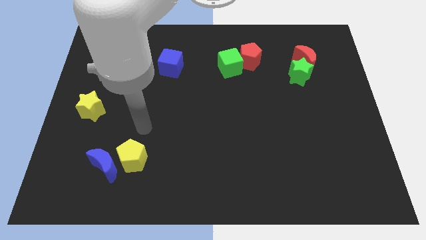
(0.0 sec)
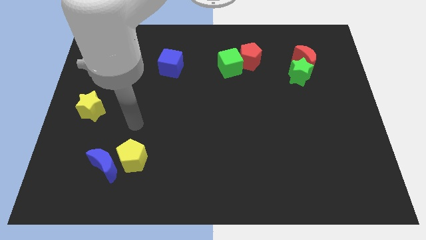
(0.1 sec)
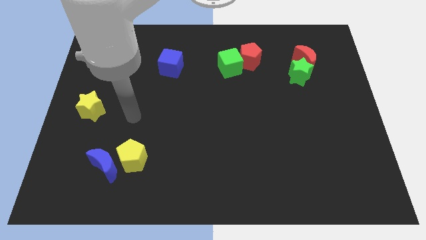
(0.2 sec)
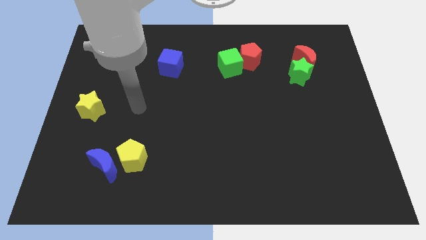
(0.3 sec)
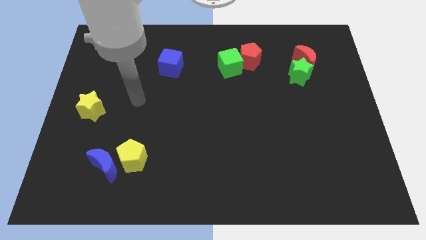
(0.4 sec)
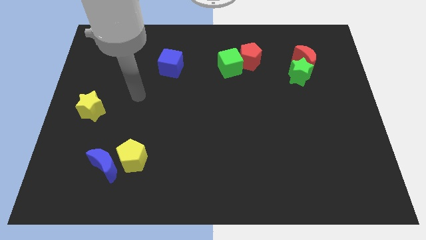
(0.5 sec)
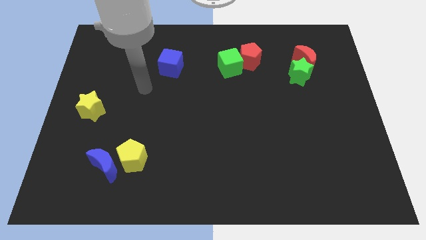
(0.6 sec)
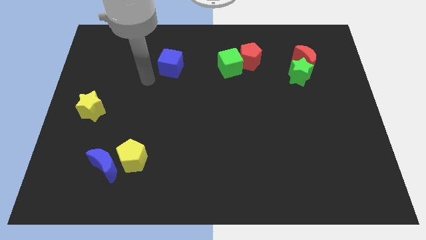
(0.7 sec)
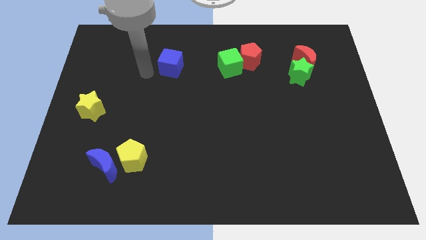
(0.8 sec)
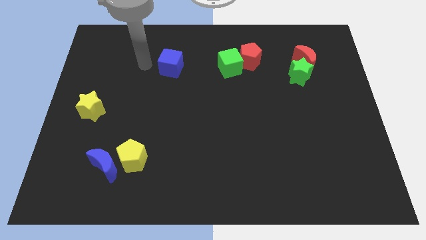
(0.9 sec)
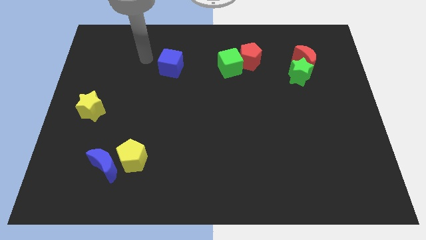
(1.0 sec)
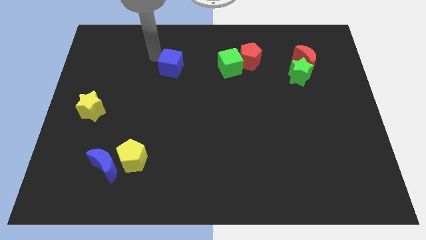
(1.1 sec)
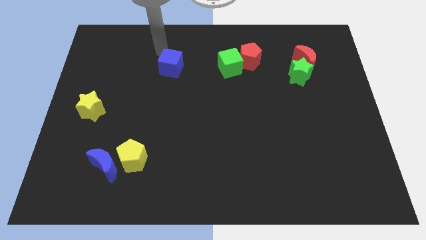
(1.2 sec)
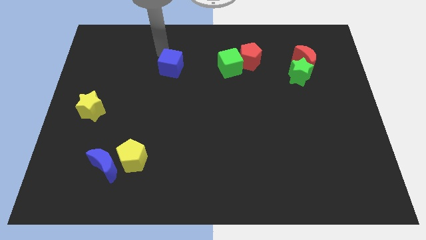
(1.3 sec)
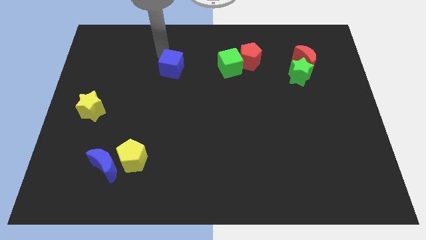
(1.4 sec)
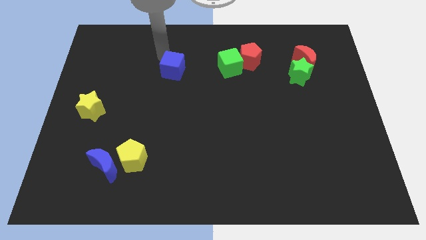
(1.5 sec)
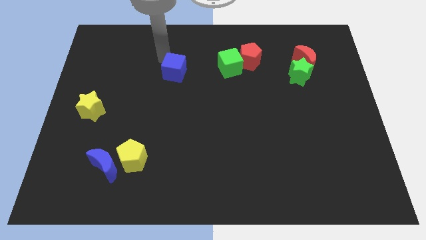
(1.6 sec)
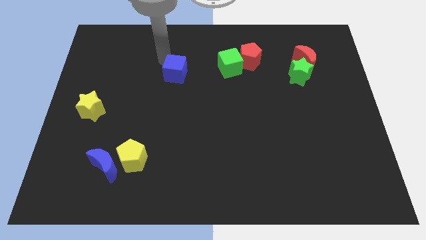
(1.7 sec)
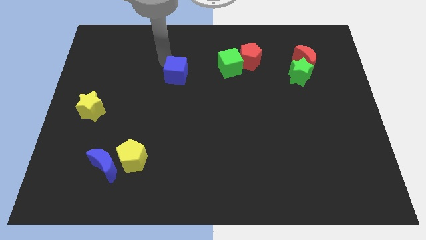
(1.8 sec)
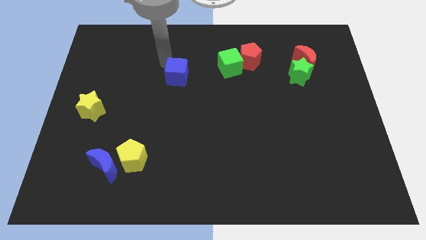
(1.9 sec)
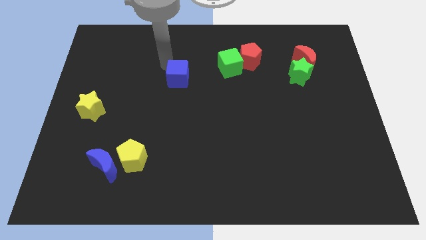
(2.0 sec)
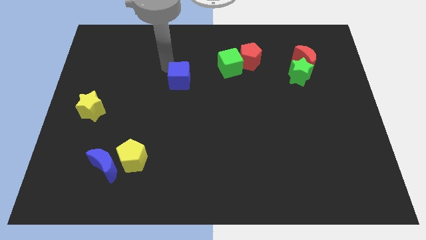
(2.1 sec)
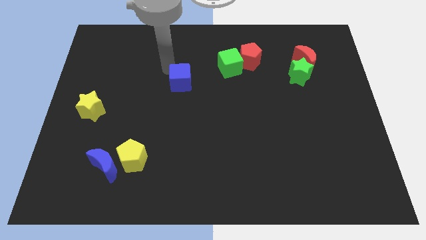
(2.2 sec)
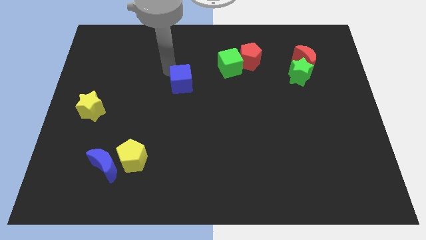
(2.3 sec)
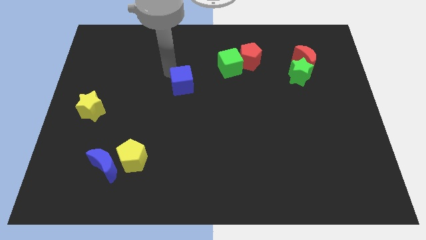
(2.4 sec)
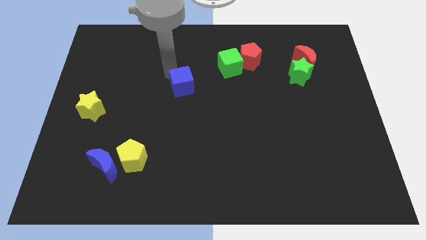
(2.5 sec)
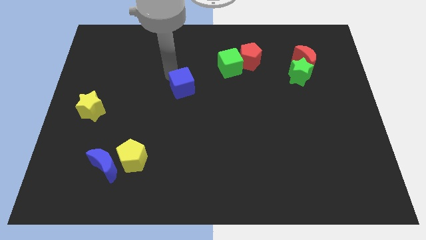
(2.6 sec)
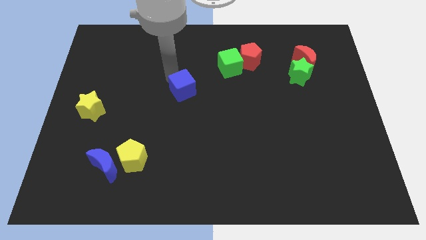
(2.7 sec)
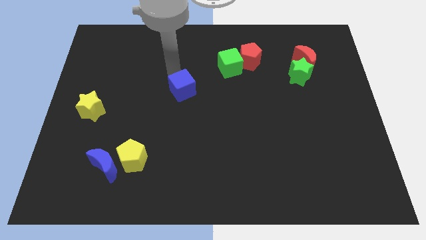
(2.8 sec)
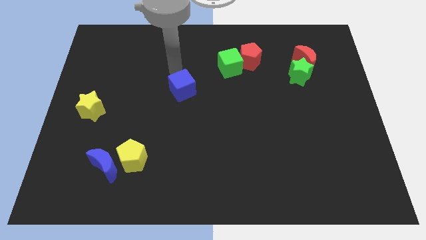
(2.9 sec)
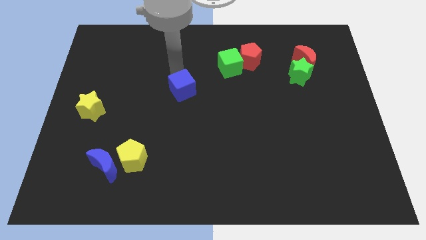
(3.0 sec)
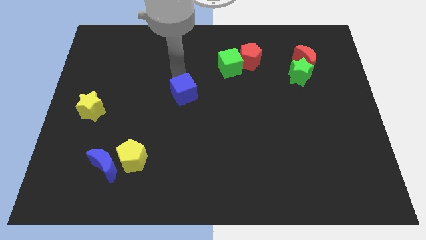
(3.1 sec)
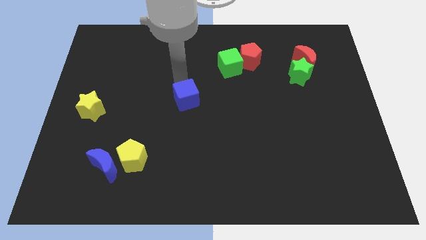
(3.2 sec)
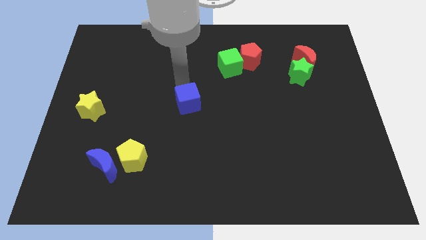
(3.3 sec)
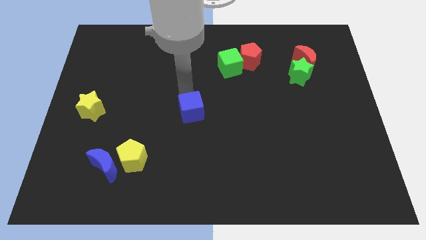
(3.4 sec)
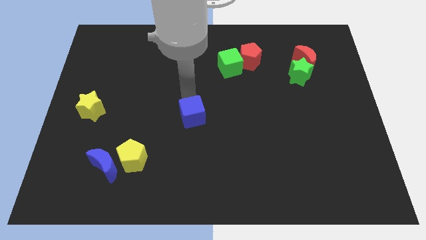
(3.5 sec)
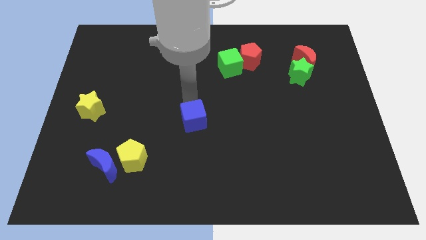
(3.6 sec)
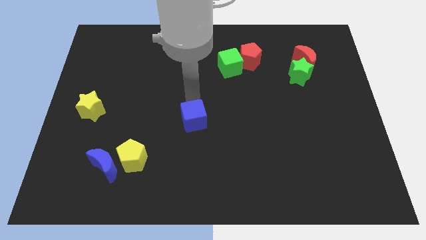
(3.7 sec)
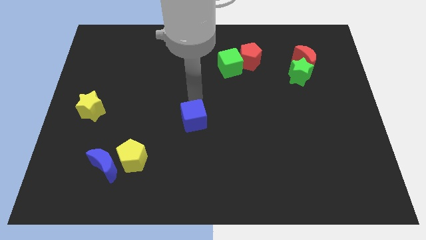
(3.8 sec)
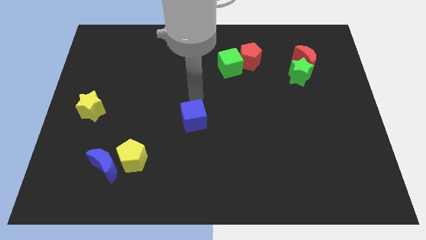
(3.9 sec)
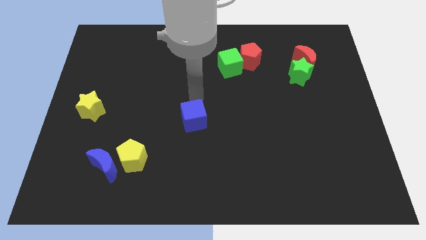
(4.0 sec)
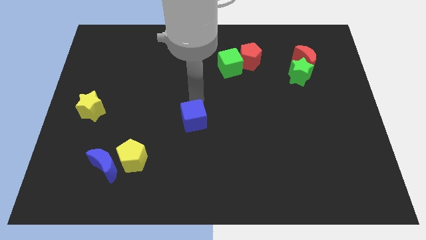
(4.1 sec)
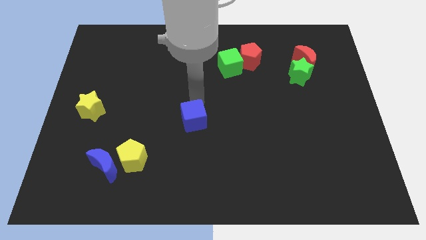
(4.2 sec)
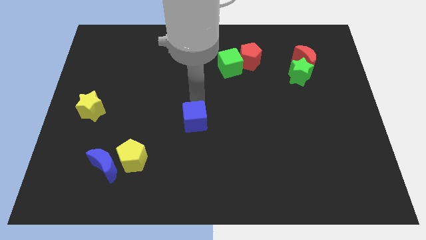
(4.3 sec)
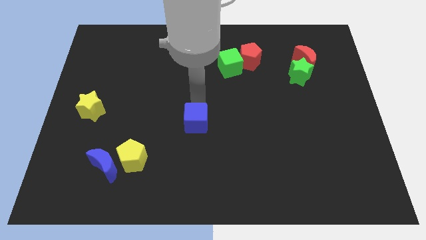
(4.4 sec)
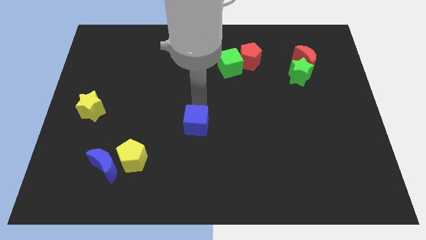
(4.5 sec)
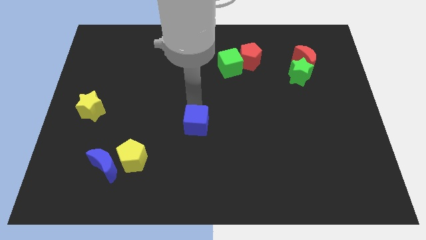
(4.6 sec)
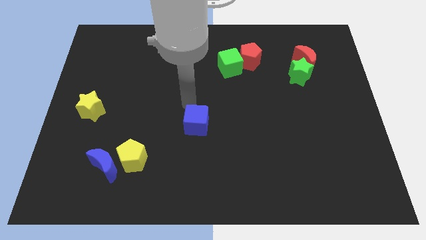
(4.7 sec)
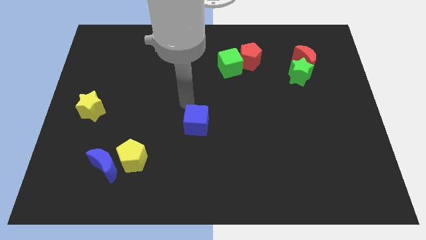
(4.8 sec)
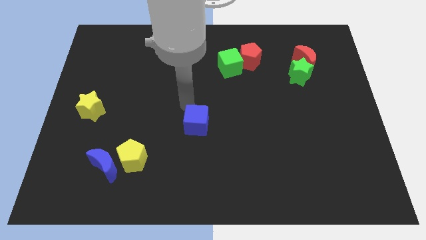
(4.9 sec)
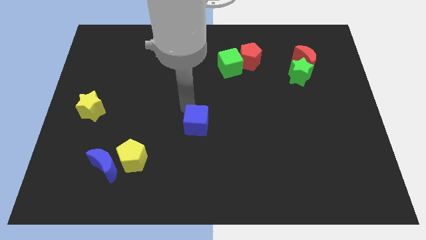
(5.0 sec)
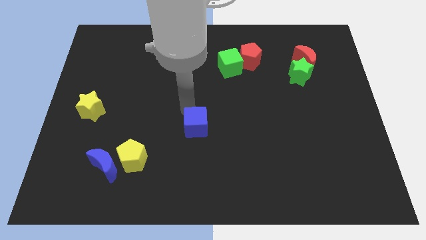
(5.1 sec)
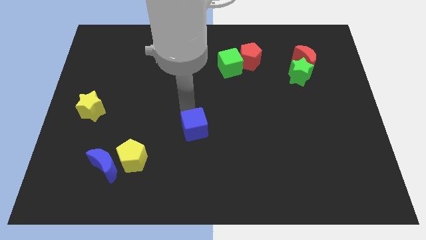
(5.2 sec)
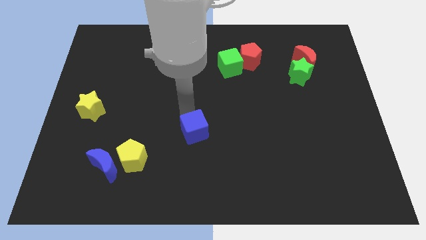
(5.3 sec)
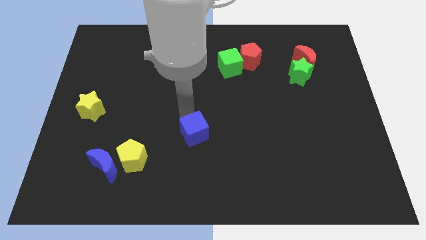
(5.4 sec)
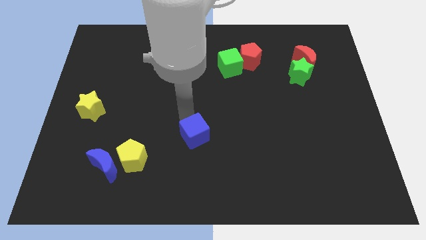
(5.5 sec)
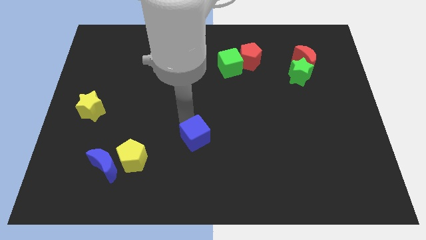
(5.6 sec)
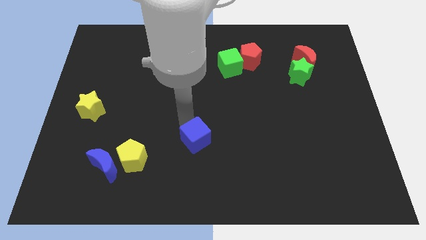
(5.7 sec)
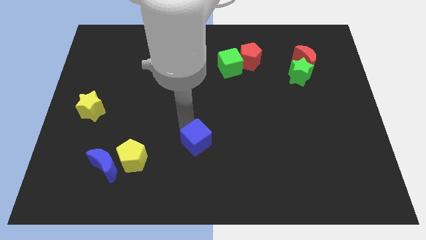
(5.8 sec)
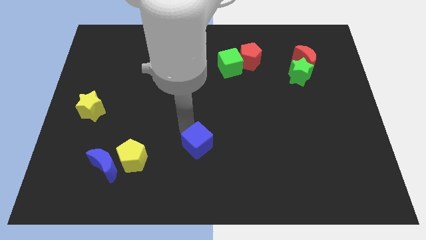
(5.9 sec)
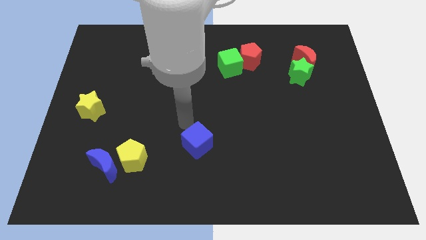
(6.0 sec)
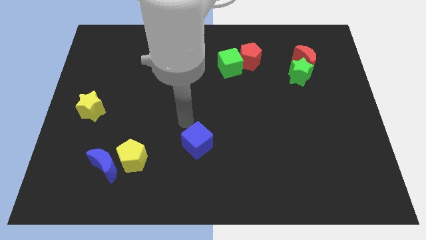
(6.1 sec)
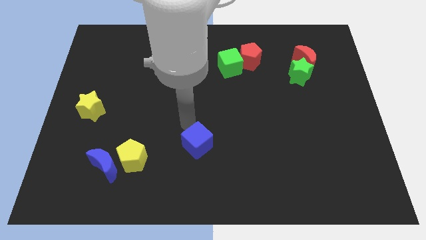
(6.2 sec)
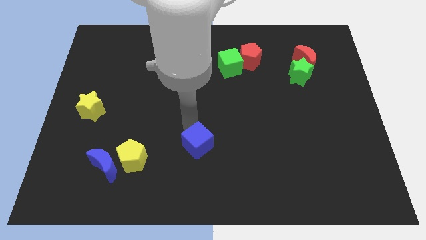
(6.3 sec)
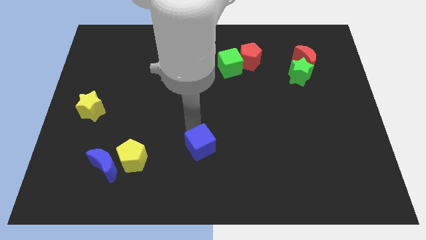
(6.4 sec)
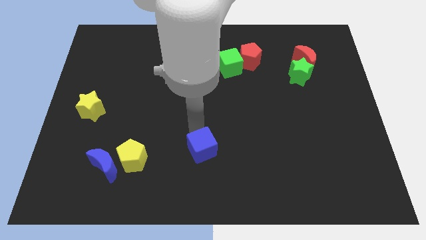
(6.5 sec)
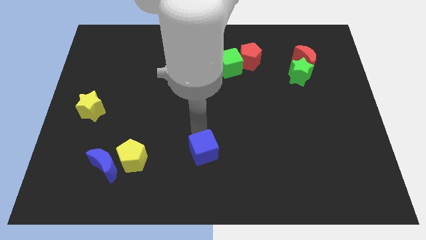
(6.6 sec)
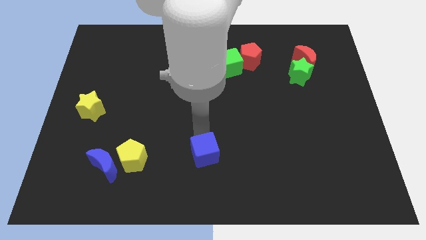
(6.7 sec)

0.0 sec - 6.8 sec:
move the blue cube to the bottom
